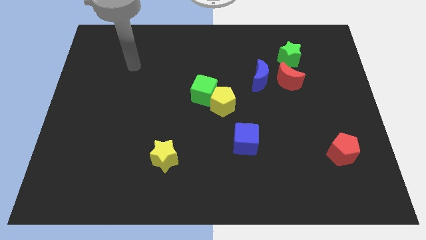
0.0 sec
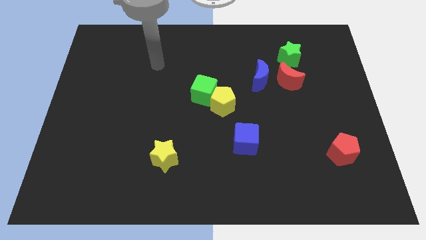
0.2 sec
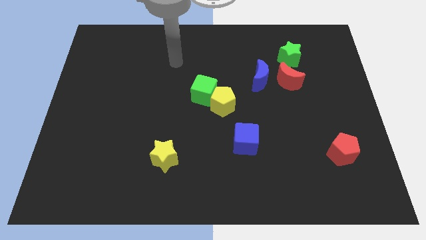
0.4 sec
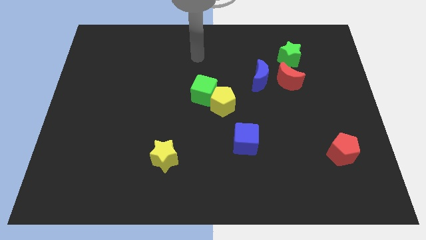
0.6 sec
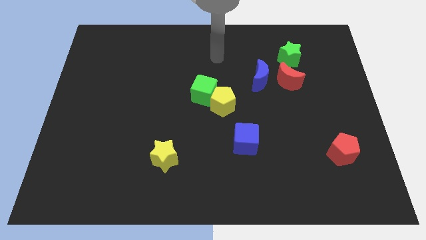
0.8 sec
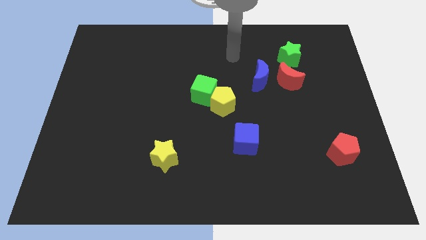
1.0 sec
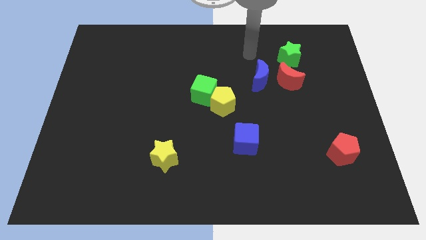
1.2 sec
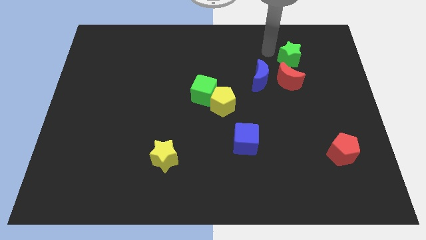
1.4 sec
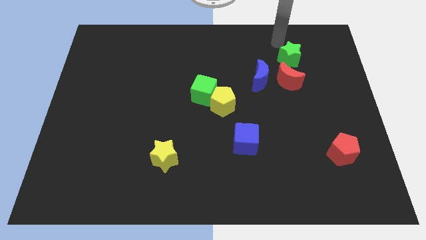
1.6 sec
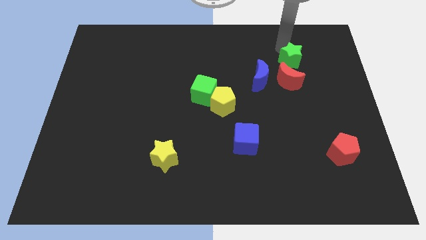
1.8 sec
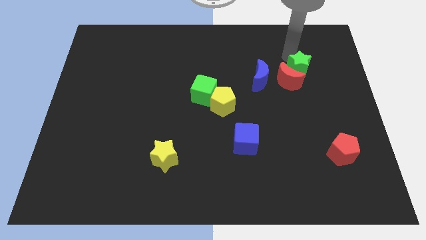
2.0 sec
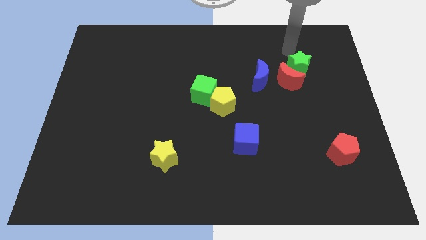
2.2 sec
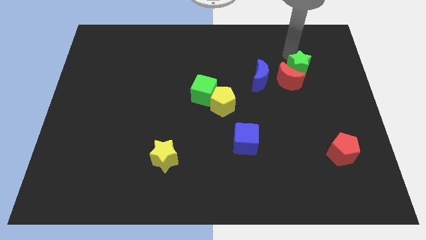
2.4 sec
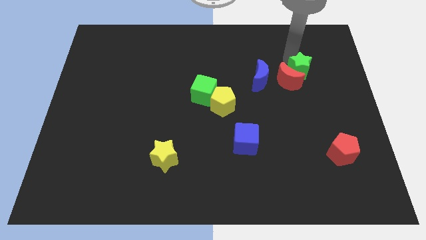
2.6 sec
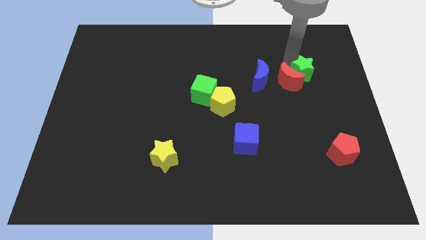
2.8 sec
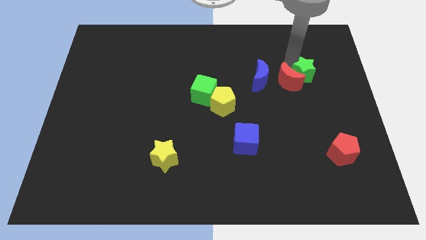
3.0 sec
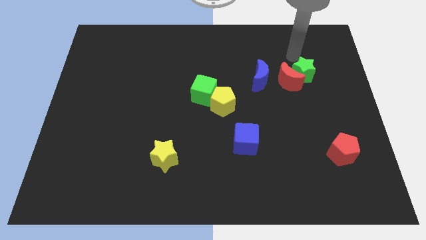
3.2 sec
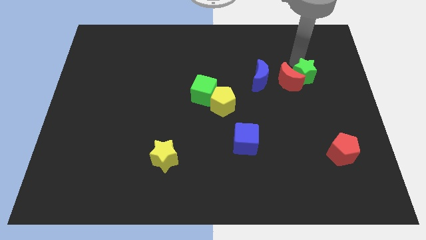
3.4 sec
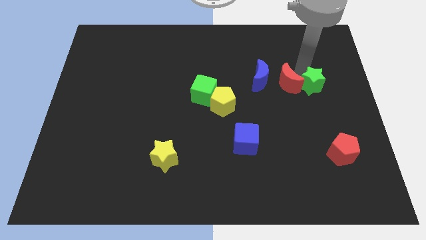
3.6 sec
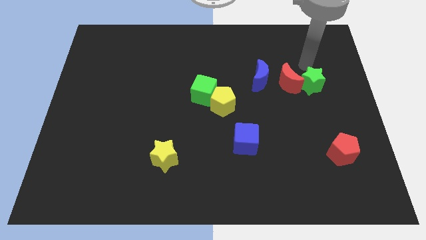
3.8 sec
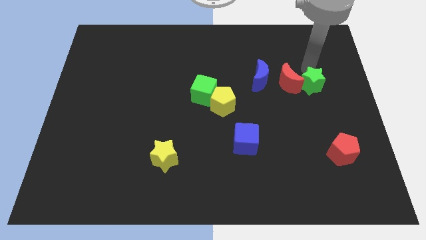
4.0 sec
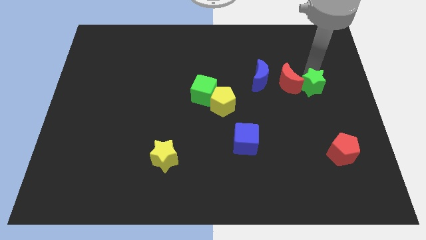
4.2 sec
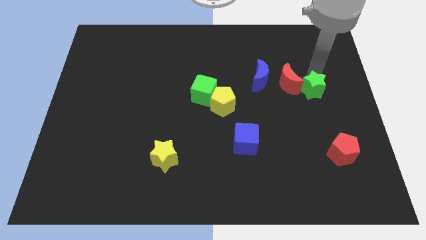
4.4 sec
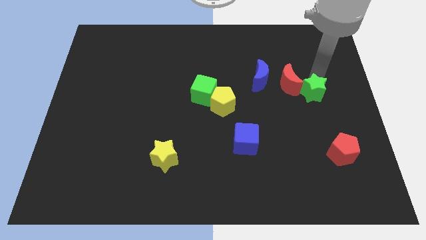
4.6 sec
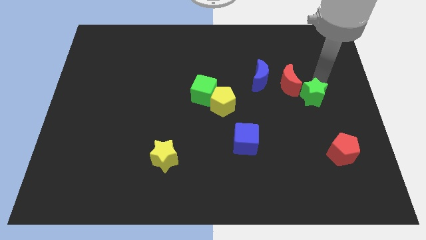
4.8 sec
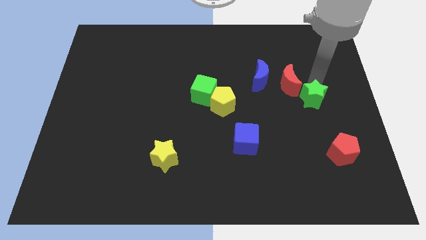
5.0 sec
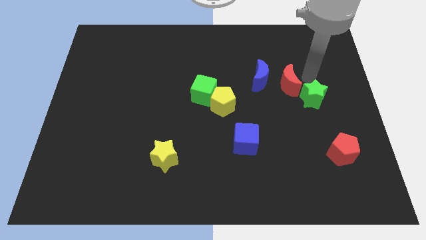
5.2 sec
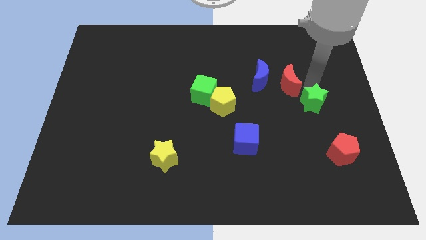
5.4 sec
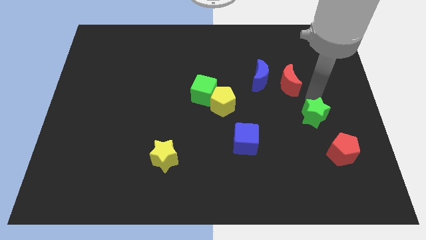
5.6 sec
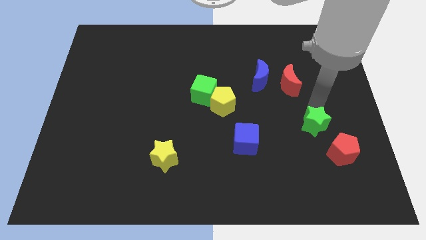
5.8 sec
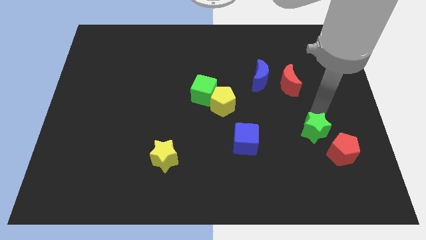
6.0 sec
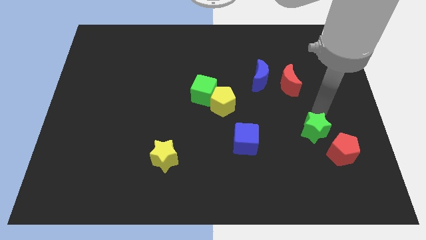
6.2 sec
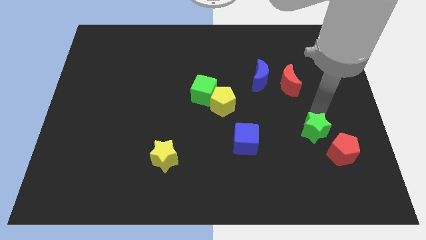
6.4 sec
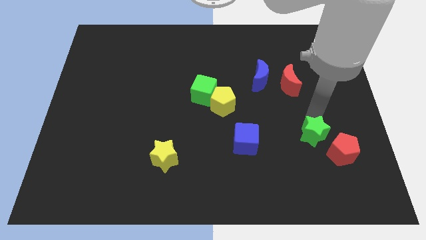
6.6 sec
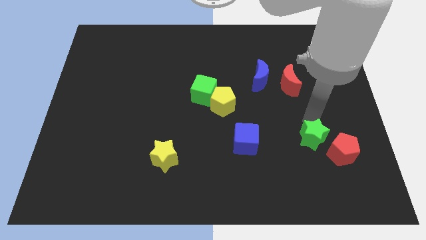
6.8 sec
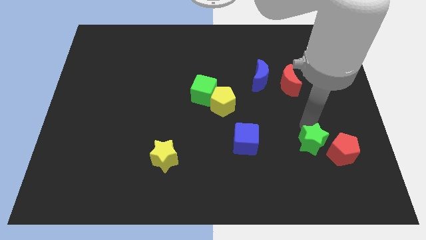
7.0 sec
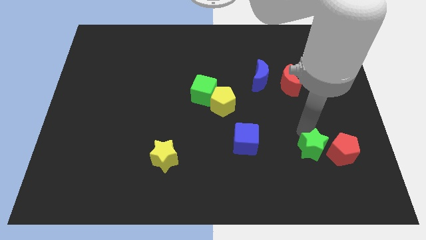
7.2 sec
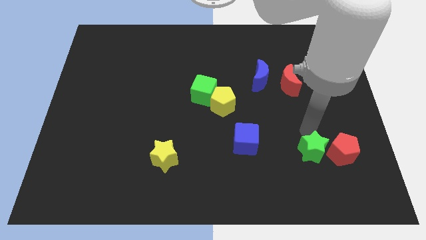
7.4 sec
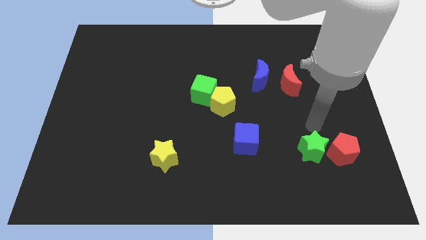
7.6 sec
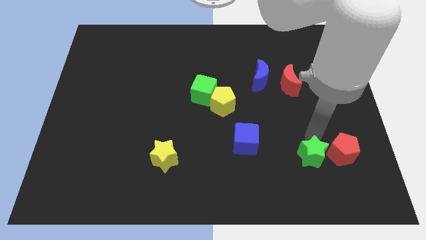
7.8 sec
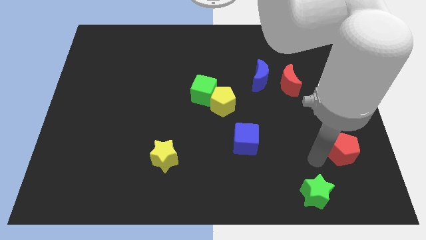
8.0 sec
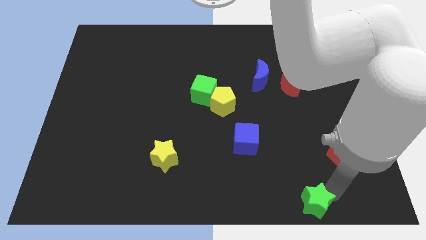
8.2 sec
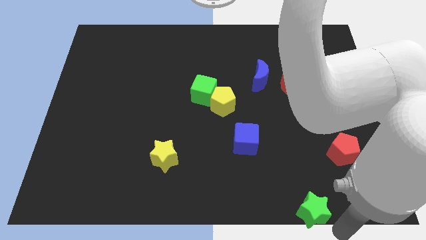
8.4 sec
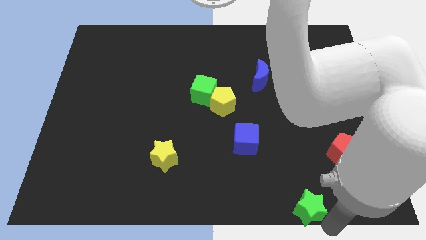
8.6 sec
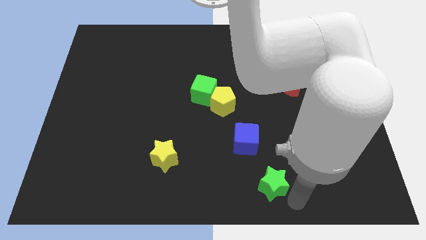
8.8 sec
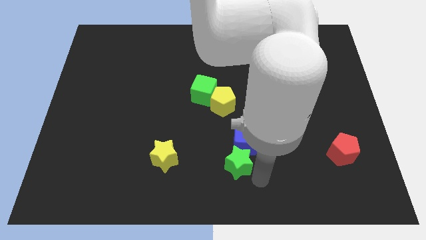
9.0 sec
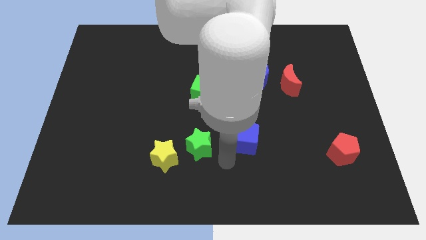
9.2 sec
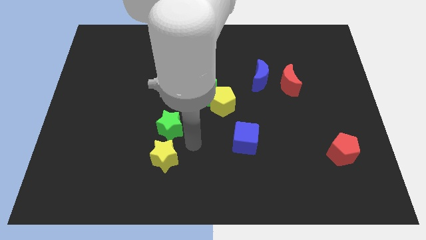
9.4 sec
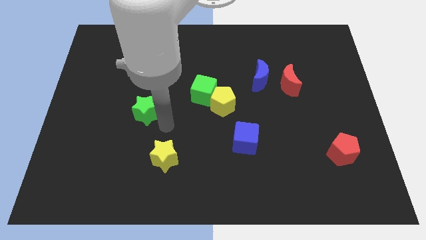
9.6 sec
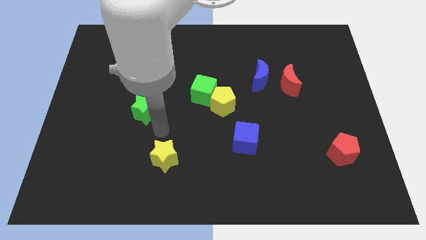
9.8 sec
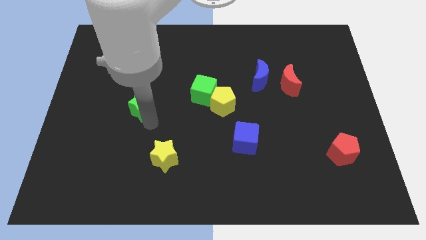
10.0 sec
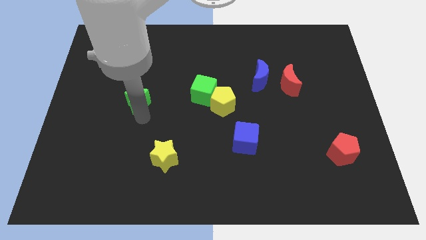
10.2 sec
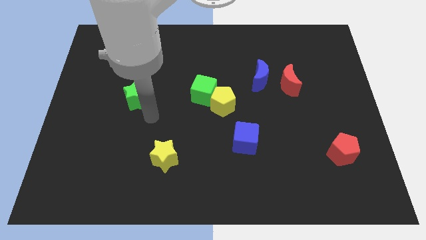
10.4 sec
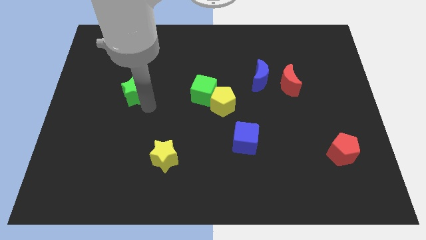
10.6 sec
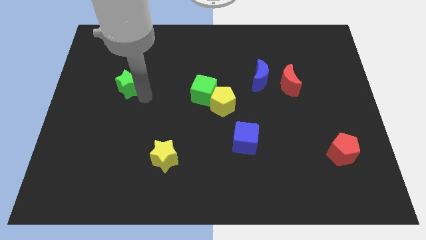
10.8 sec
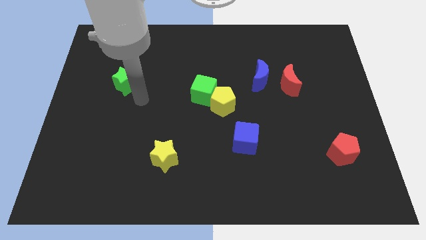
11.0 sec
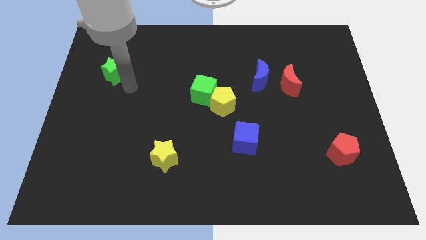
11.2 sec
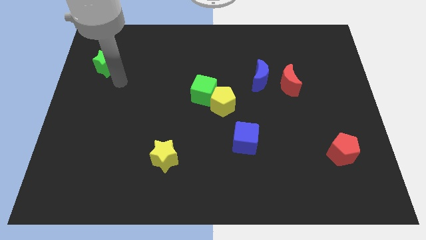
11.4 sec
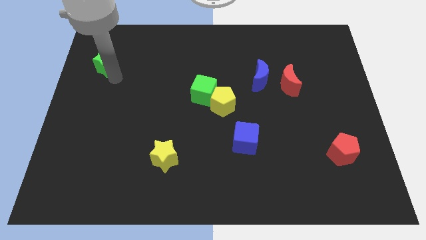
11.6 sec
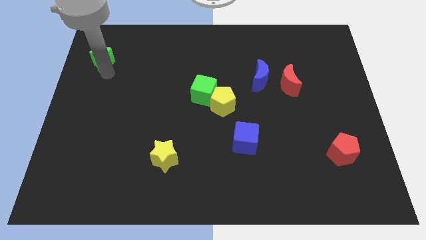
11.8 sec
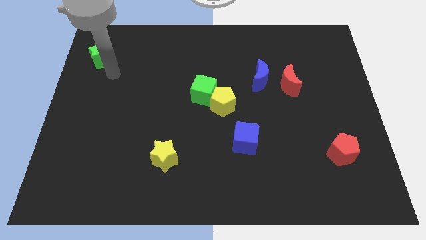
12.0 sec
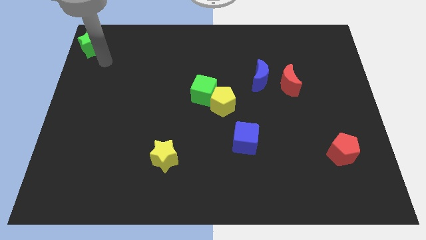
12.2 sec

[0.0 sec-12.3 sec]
push the green star to the upper left corner
